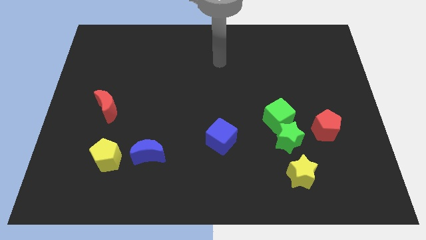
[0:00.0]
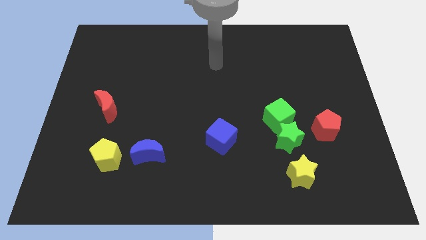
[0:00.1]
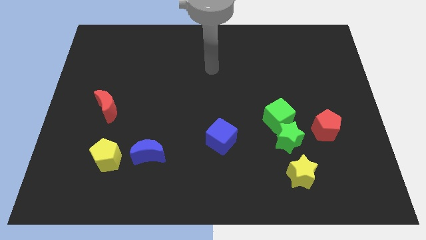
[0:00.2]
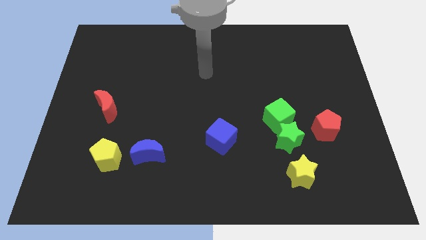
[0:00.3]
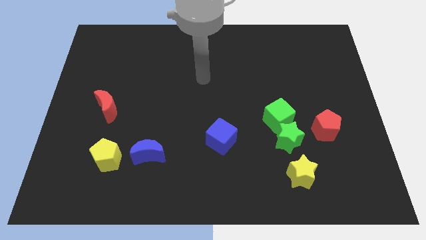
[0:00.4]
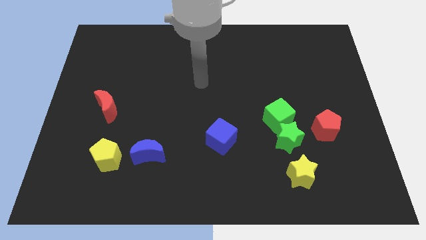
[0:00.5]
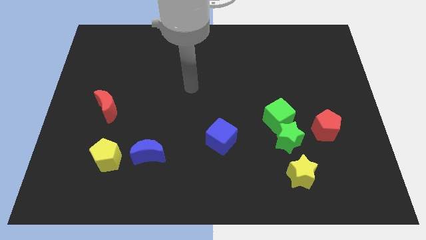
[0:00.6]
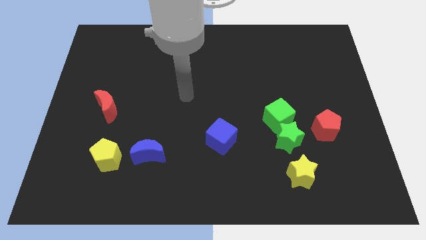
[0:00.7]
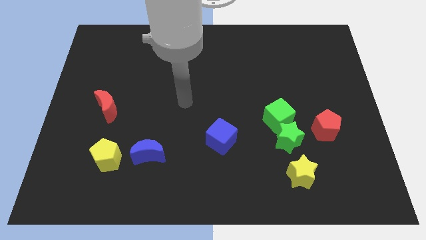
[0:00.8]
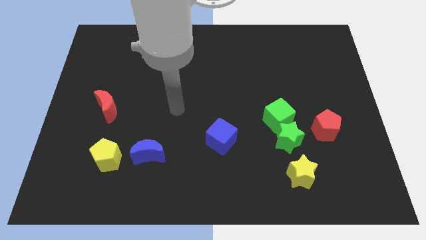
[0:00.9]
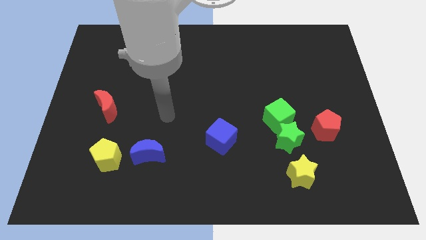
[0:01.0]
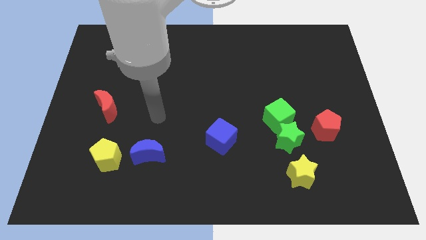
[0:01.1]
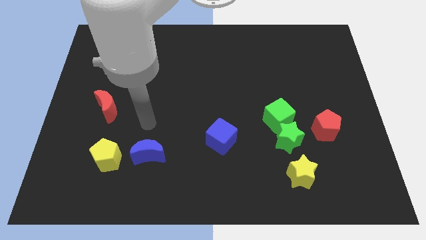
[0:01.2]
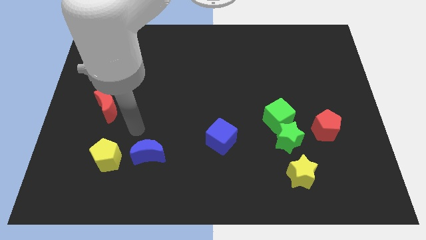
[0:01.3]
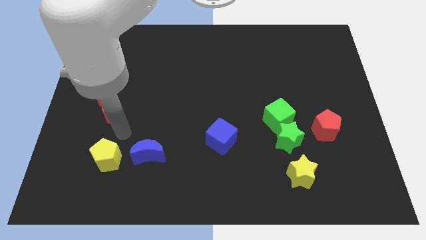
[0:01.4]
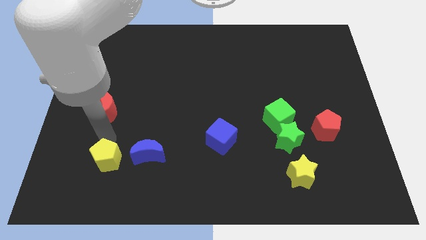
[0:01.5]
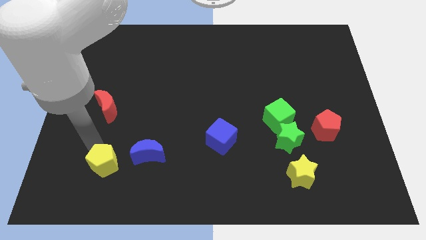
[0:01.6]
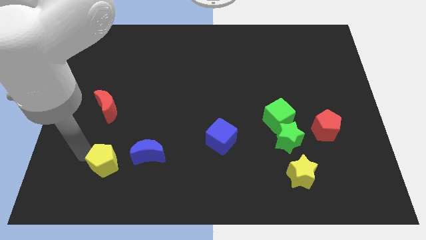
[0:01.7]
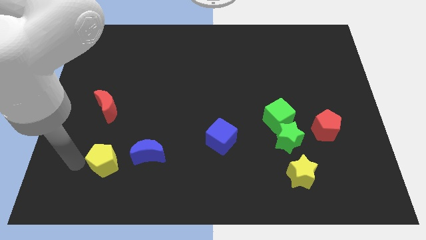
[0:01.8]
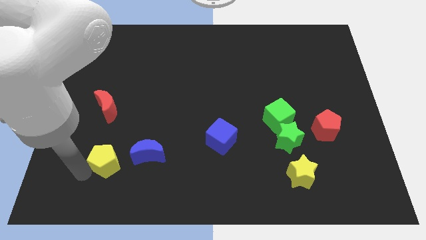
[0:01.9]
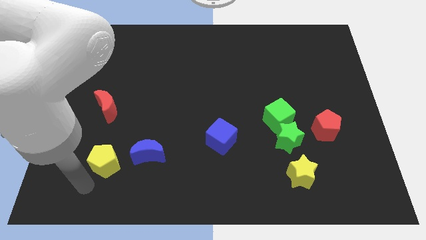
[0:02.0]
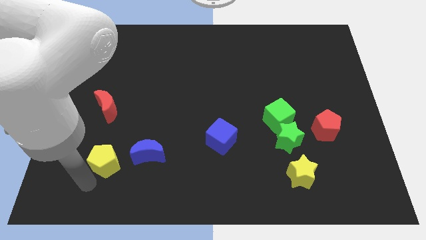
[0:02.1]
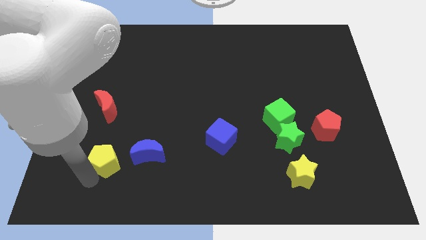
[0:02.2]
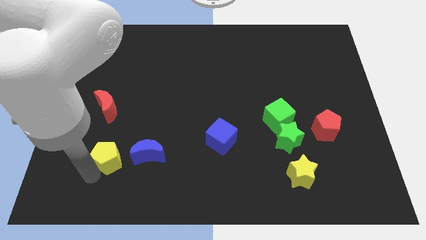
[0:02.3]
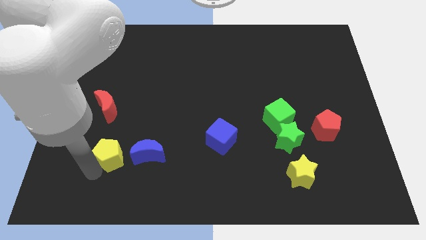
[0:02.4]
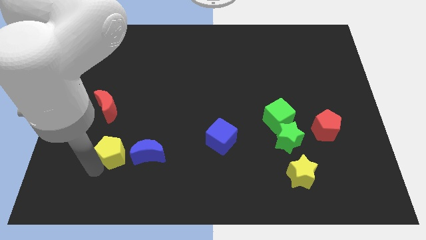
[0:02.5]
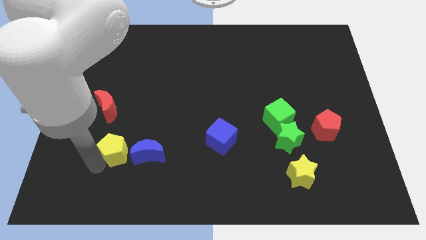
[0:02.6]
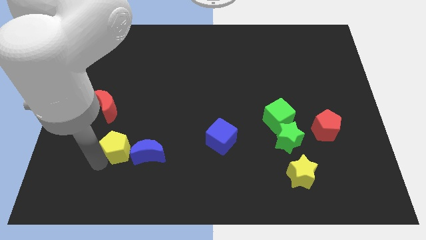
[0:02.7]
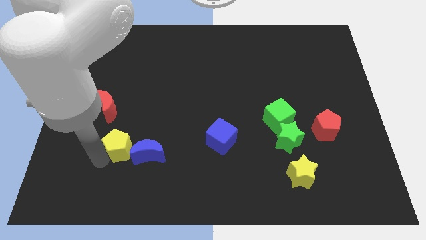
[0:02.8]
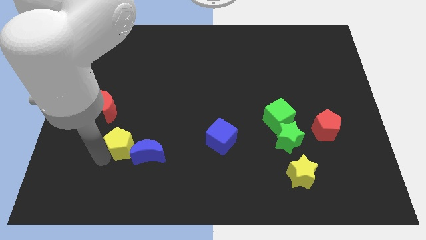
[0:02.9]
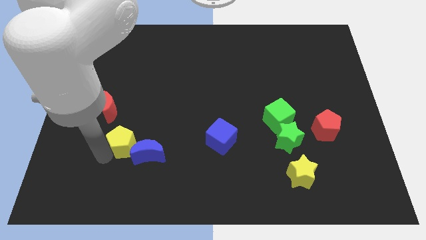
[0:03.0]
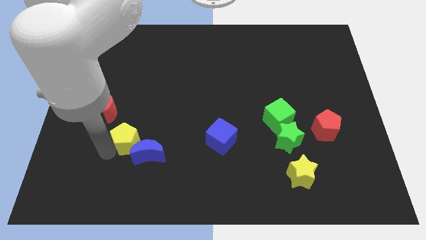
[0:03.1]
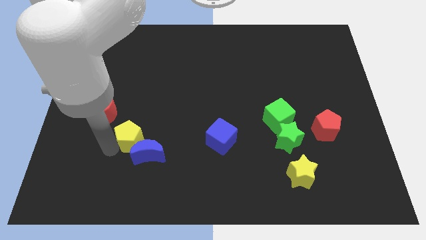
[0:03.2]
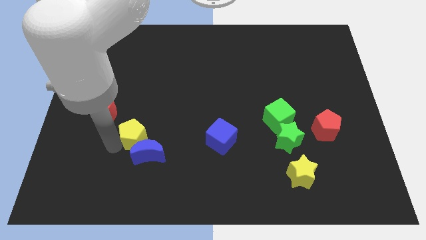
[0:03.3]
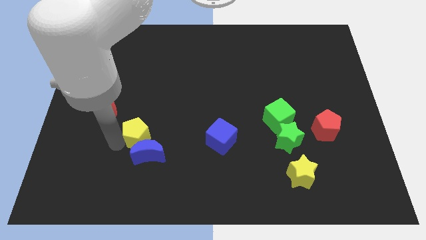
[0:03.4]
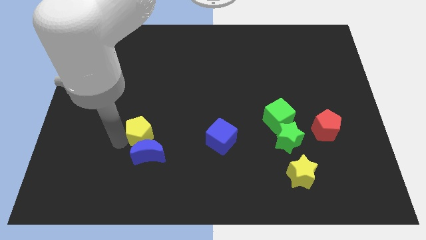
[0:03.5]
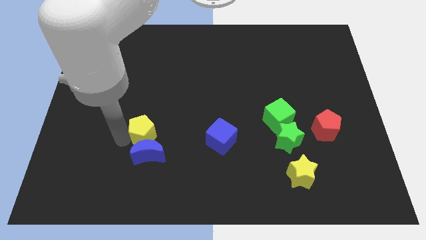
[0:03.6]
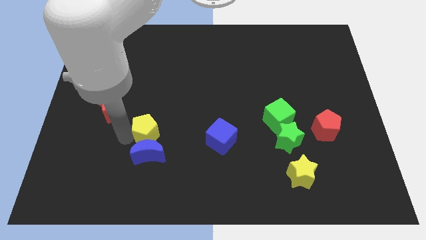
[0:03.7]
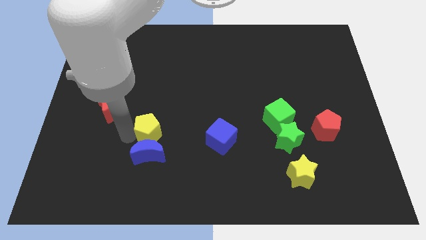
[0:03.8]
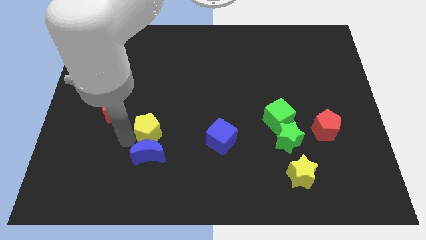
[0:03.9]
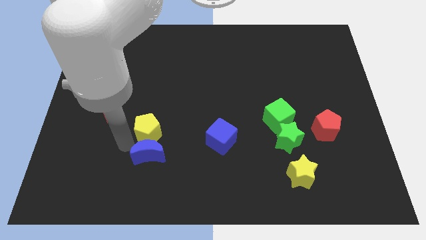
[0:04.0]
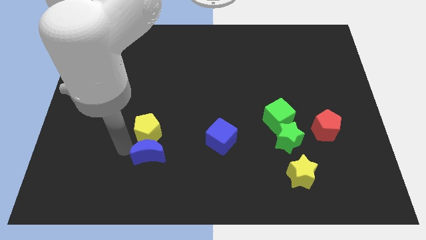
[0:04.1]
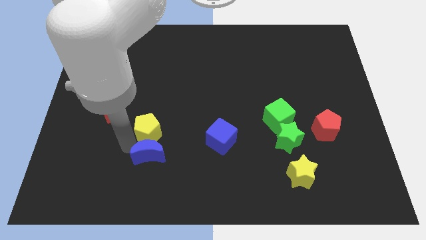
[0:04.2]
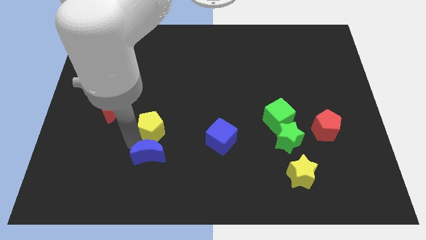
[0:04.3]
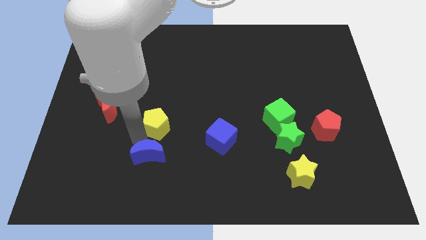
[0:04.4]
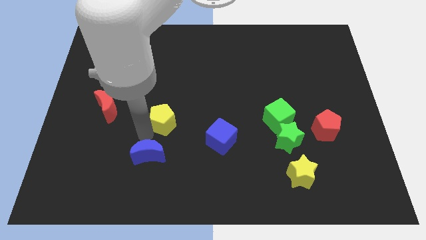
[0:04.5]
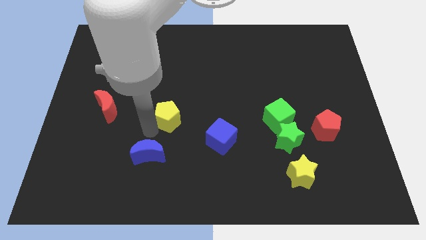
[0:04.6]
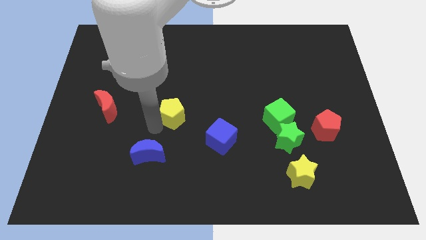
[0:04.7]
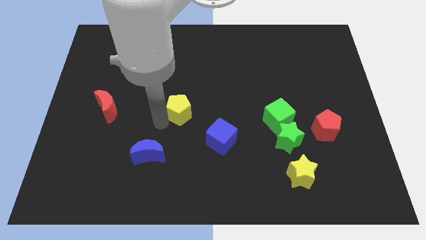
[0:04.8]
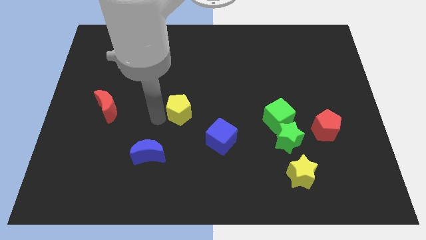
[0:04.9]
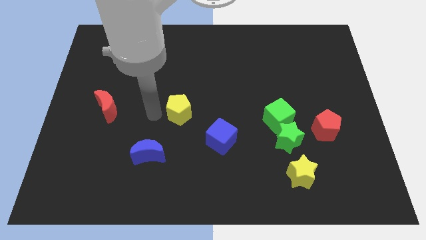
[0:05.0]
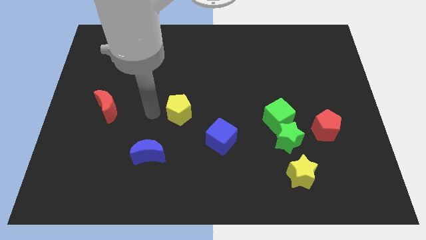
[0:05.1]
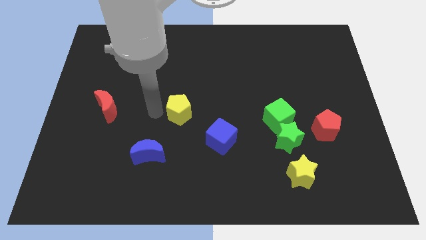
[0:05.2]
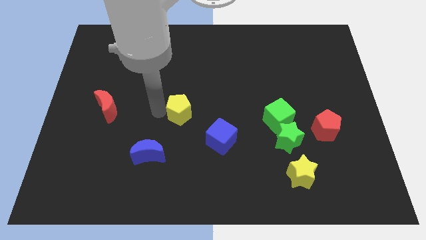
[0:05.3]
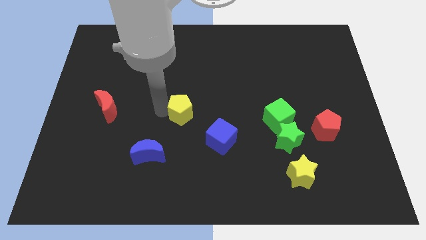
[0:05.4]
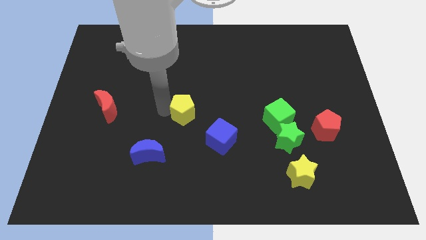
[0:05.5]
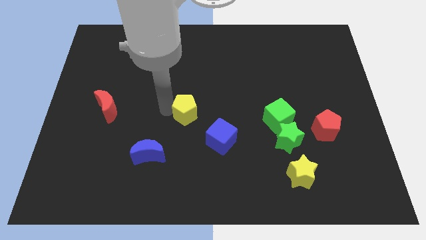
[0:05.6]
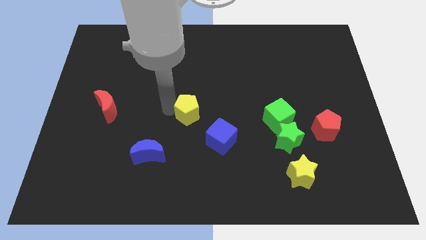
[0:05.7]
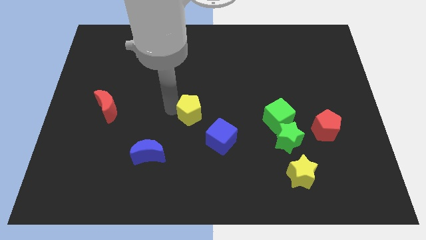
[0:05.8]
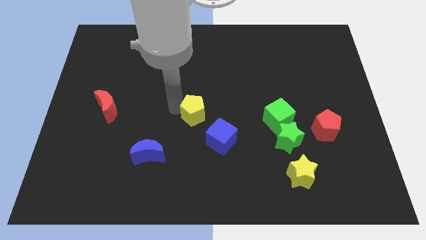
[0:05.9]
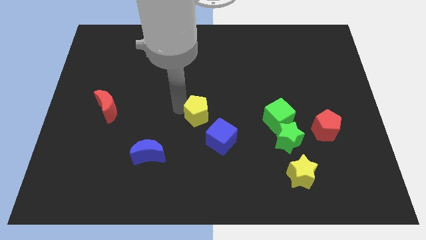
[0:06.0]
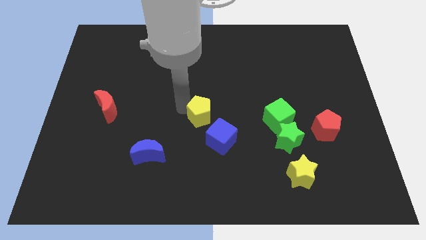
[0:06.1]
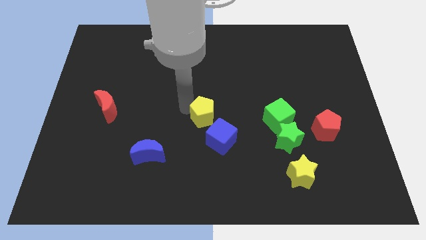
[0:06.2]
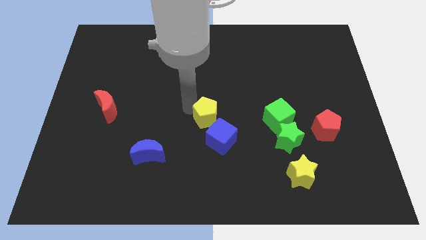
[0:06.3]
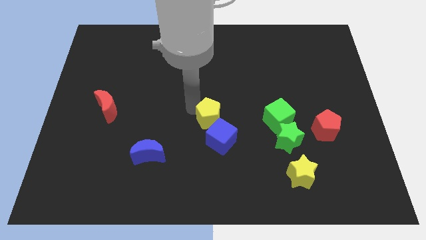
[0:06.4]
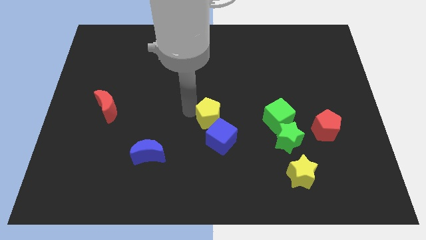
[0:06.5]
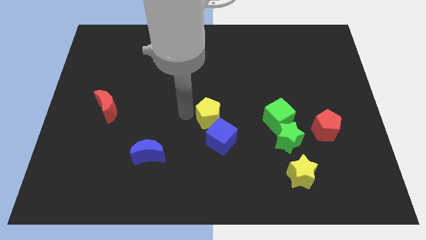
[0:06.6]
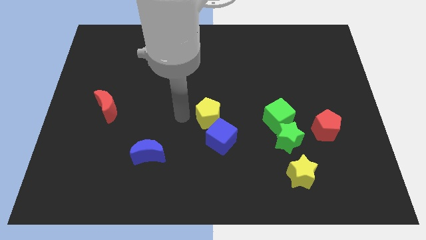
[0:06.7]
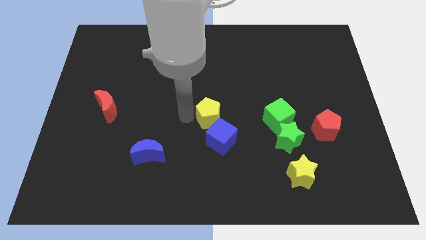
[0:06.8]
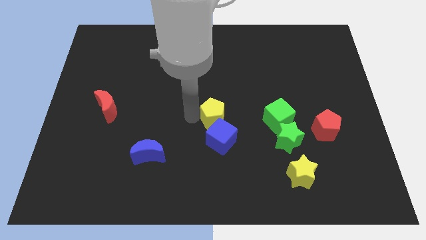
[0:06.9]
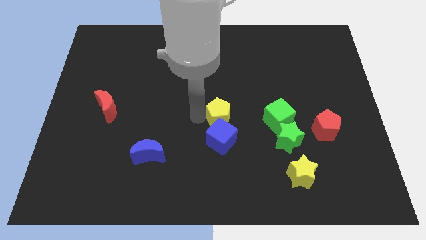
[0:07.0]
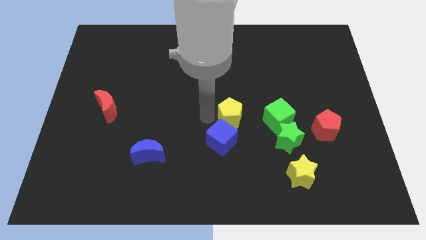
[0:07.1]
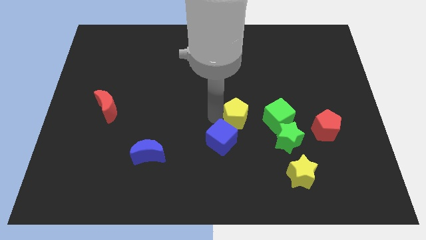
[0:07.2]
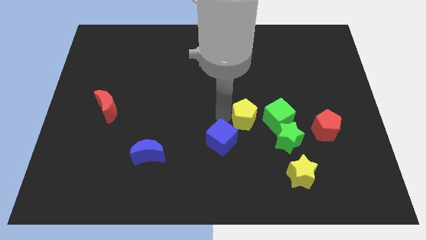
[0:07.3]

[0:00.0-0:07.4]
put the yellow pentagon diagonally up and to the left of the green star

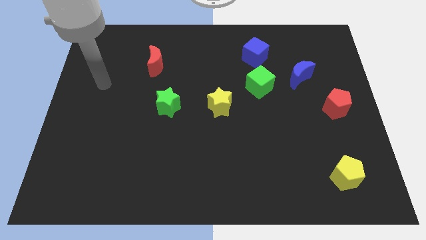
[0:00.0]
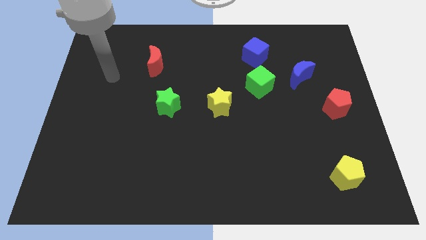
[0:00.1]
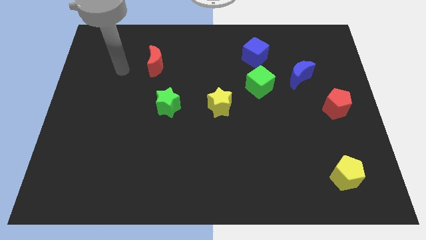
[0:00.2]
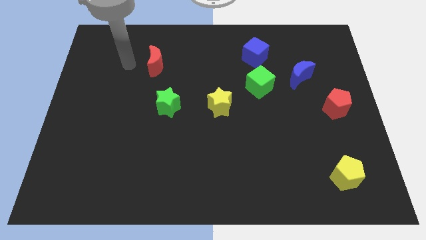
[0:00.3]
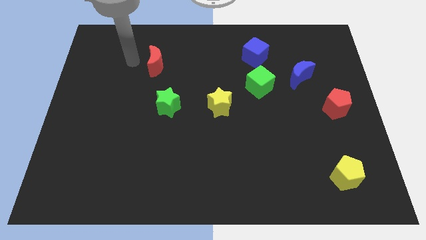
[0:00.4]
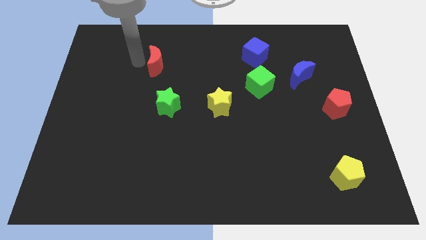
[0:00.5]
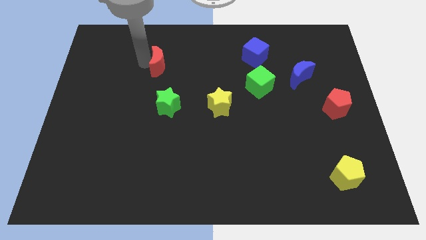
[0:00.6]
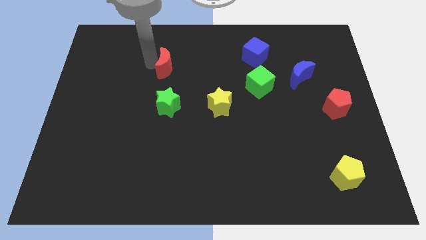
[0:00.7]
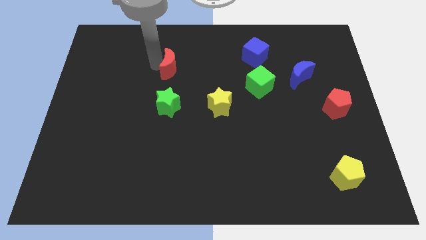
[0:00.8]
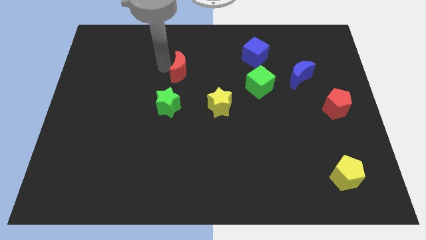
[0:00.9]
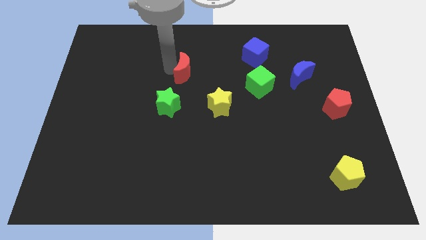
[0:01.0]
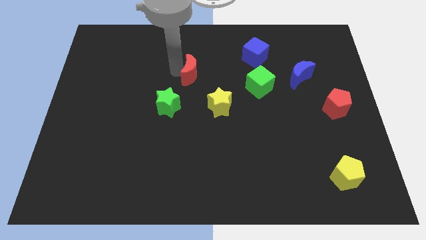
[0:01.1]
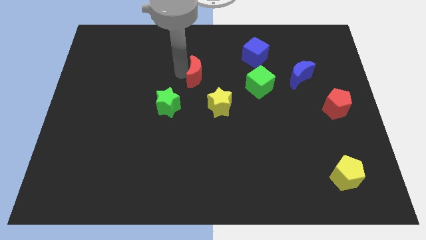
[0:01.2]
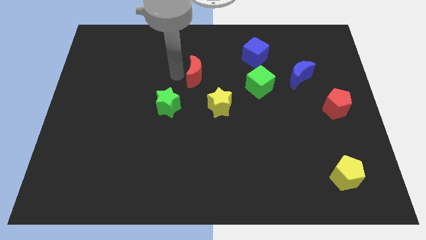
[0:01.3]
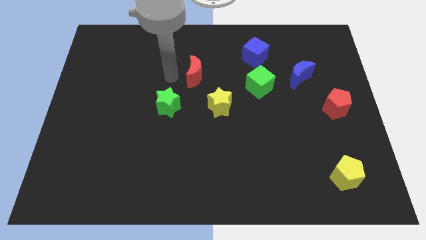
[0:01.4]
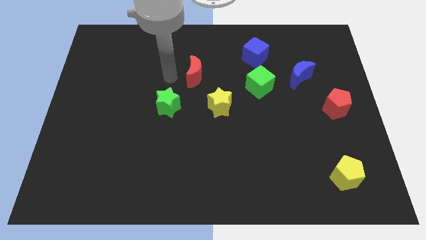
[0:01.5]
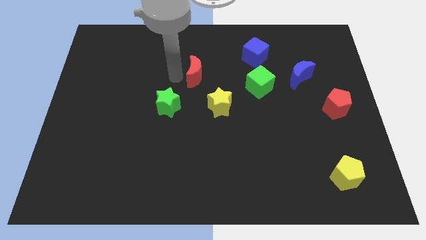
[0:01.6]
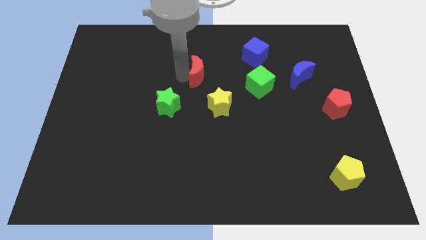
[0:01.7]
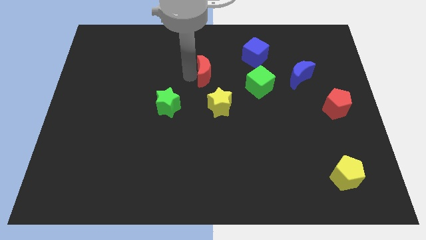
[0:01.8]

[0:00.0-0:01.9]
move the red moon to the top of the yellow star
